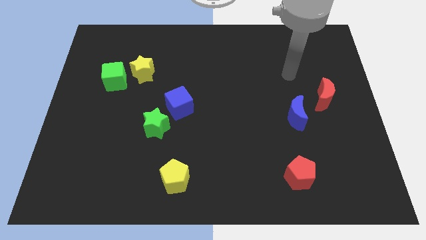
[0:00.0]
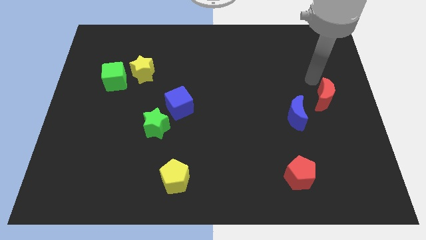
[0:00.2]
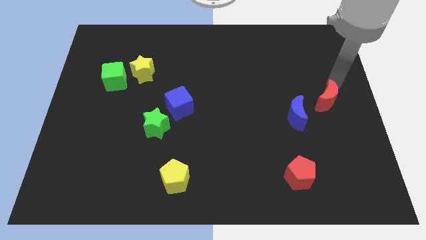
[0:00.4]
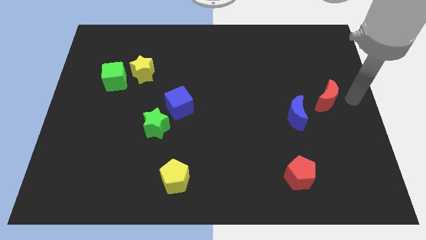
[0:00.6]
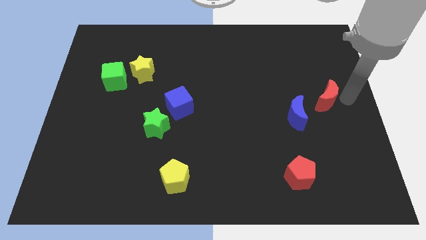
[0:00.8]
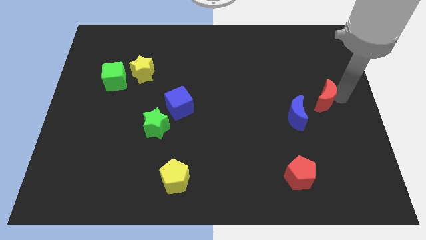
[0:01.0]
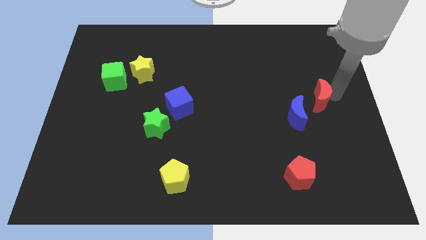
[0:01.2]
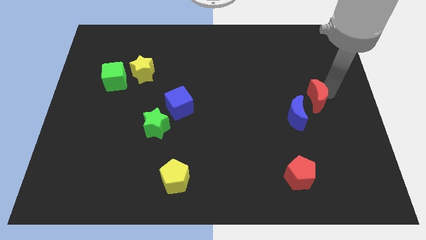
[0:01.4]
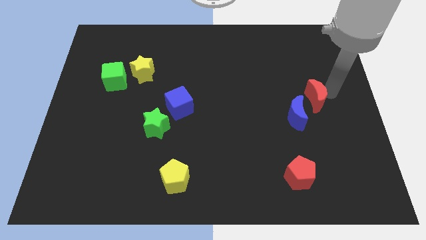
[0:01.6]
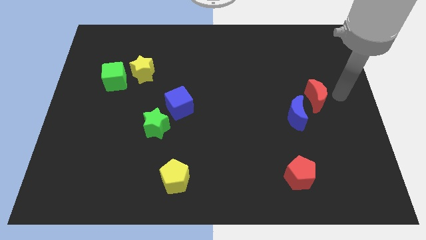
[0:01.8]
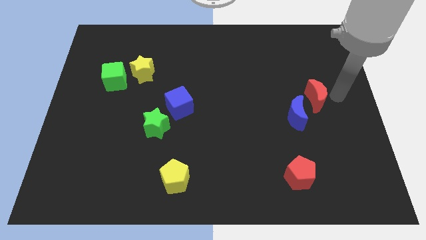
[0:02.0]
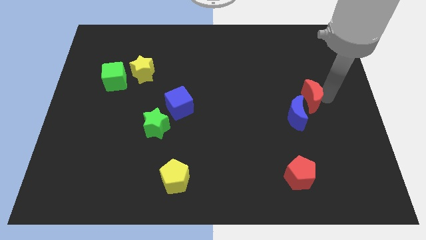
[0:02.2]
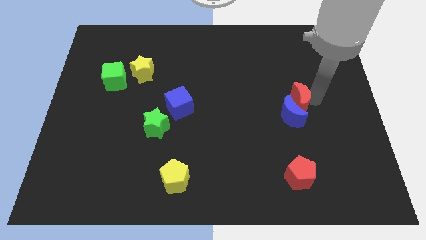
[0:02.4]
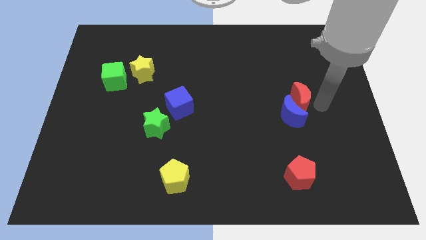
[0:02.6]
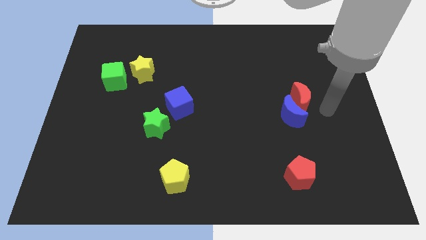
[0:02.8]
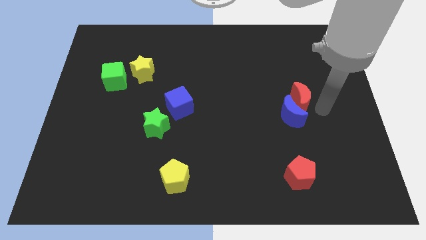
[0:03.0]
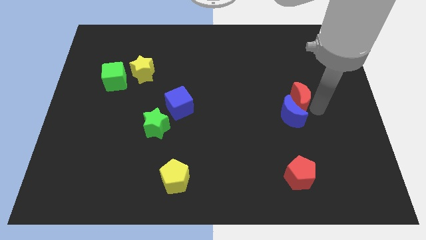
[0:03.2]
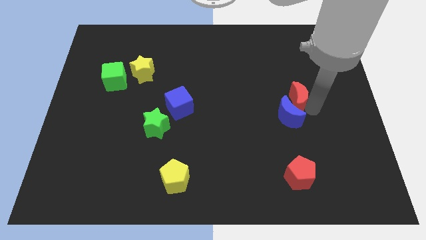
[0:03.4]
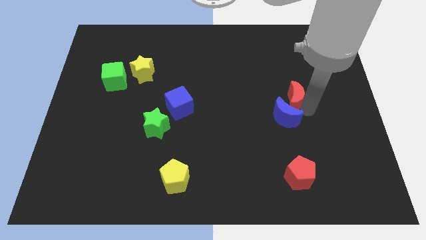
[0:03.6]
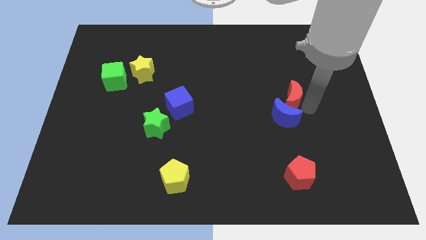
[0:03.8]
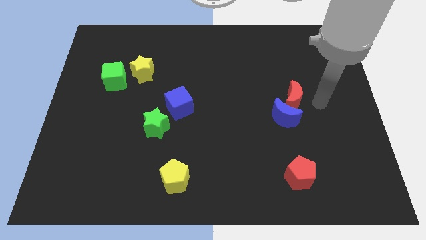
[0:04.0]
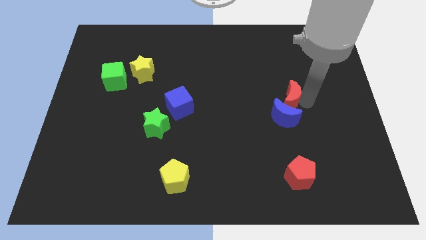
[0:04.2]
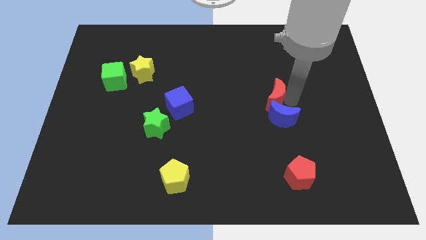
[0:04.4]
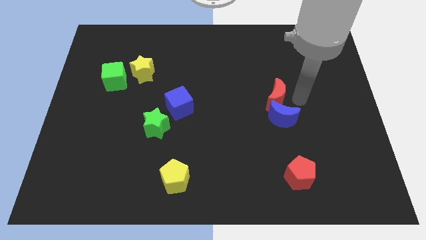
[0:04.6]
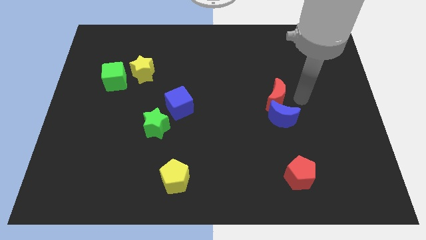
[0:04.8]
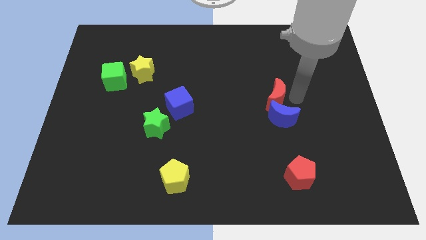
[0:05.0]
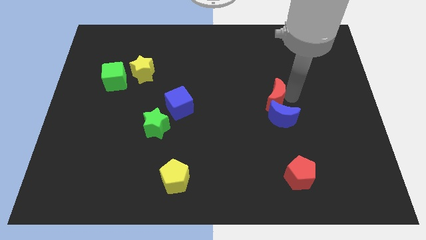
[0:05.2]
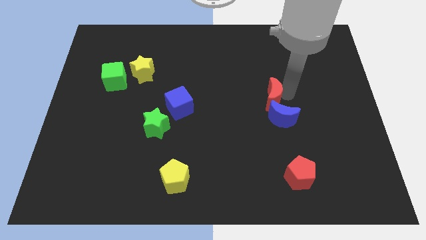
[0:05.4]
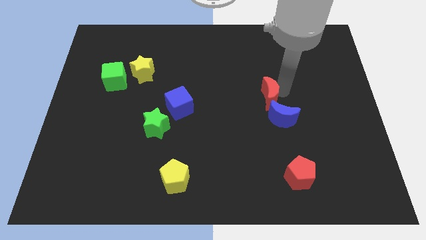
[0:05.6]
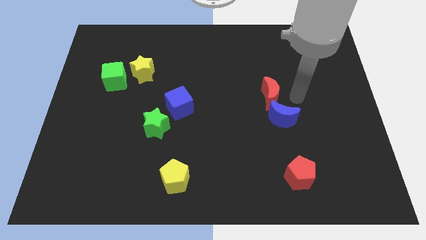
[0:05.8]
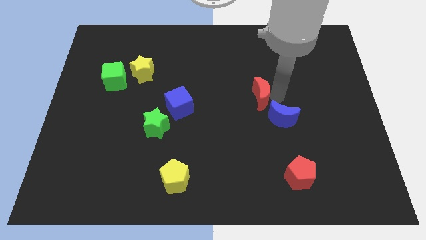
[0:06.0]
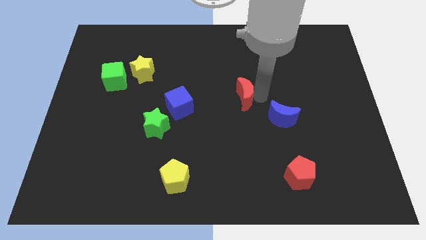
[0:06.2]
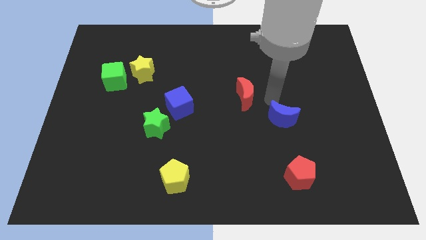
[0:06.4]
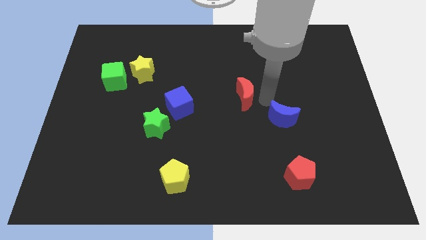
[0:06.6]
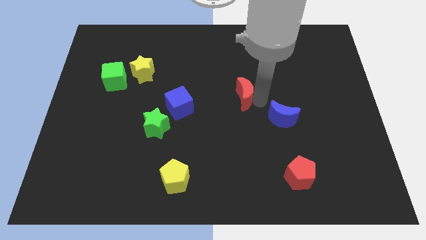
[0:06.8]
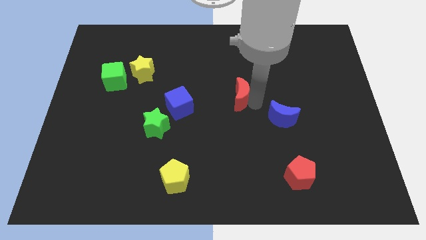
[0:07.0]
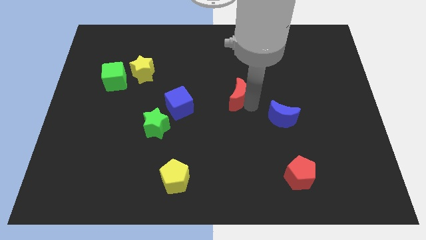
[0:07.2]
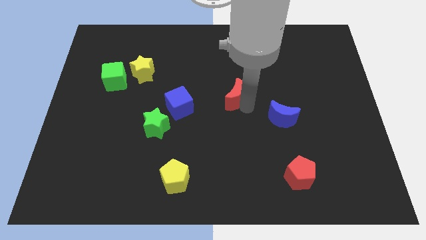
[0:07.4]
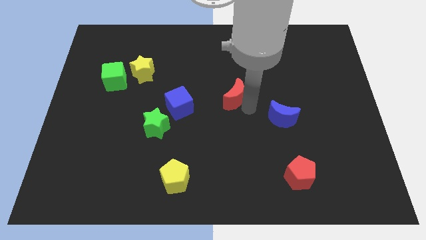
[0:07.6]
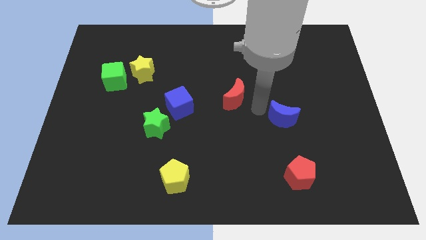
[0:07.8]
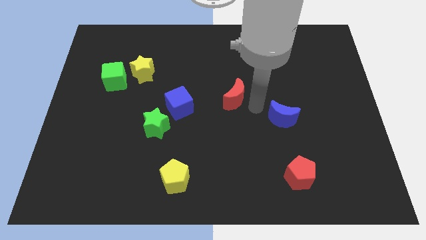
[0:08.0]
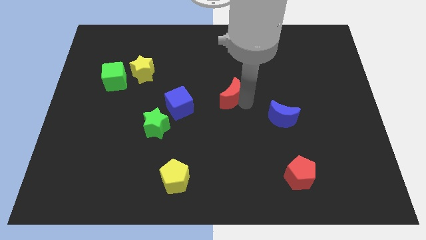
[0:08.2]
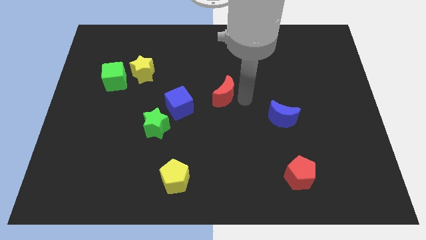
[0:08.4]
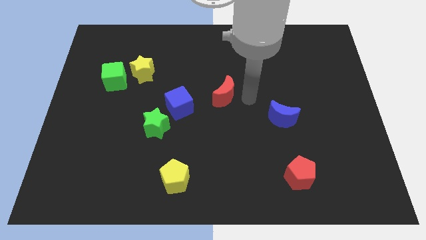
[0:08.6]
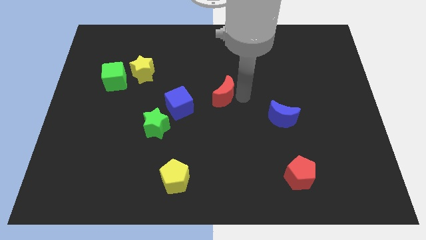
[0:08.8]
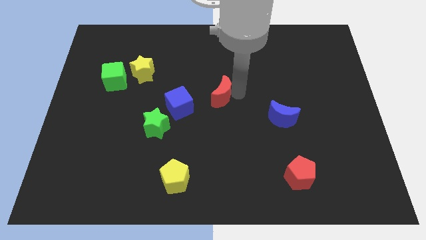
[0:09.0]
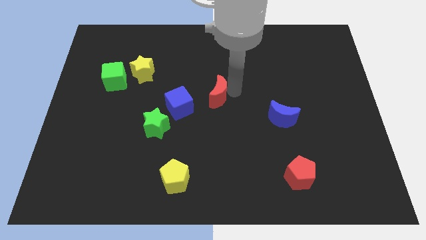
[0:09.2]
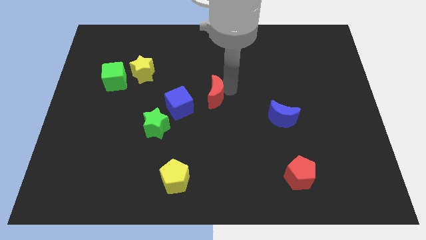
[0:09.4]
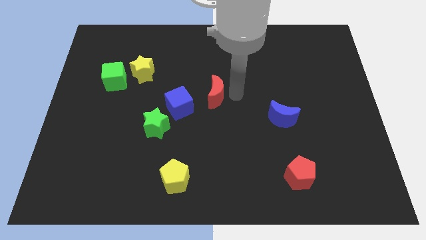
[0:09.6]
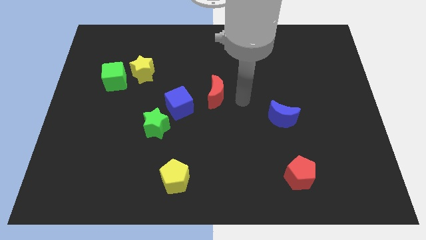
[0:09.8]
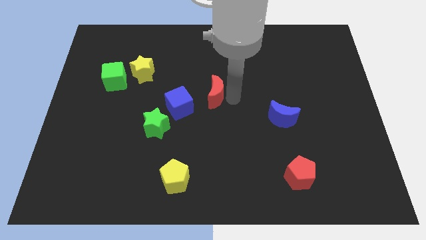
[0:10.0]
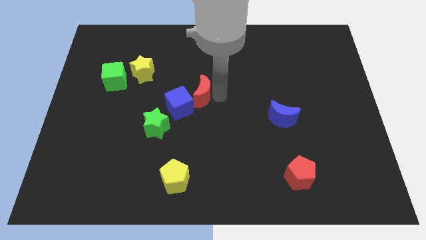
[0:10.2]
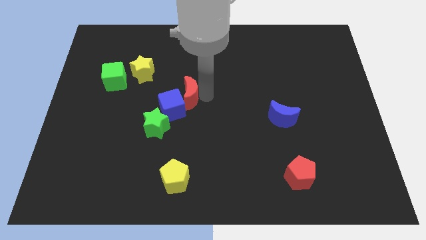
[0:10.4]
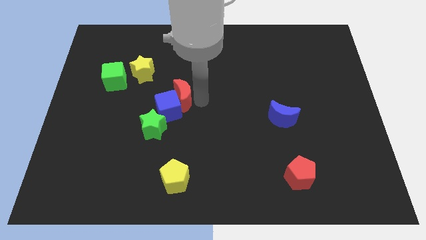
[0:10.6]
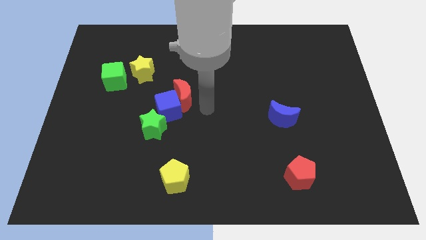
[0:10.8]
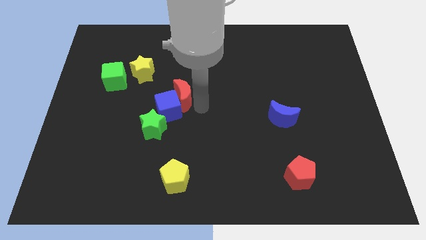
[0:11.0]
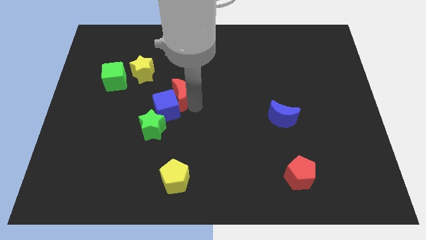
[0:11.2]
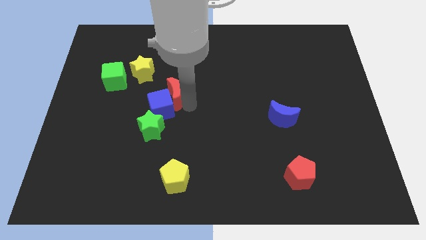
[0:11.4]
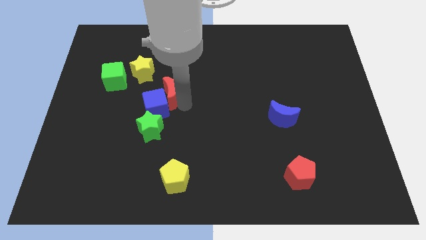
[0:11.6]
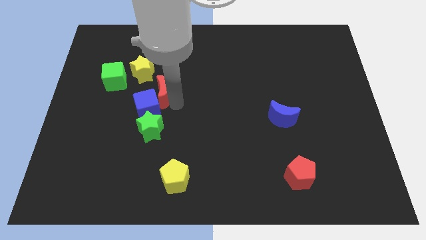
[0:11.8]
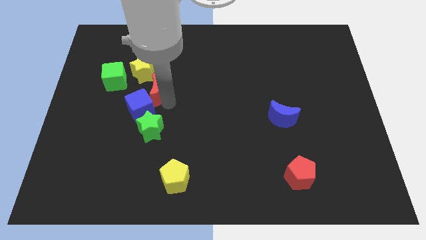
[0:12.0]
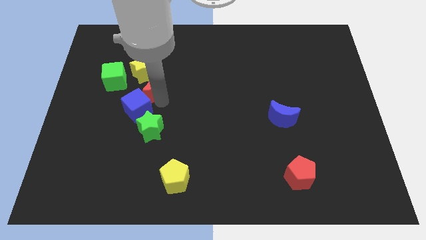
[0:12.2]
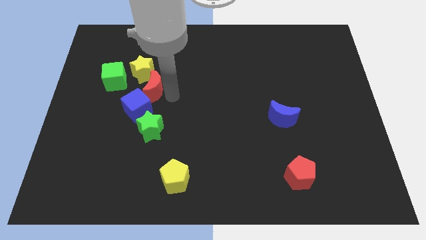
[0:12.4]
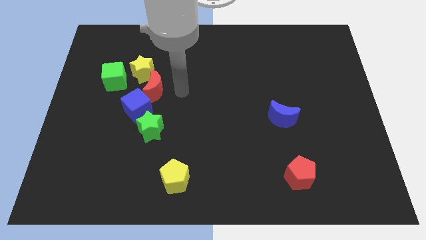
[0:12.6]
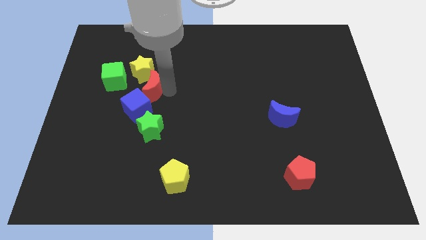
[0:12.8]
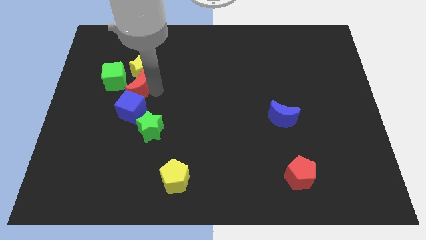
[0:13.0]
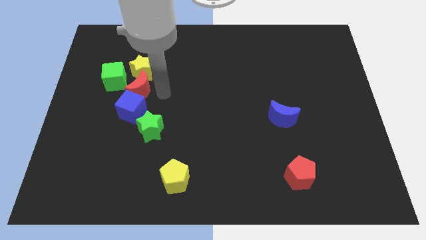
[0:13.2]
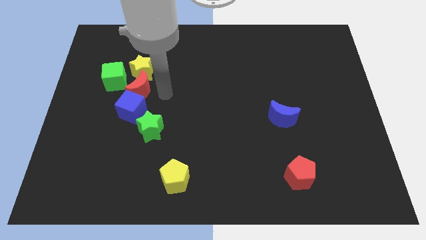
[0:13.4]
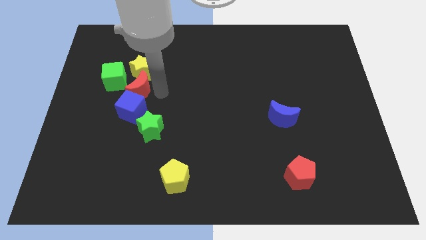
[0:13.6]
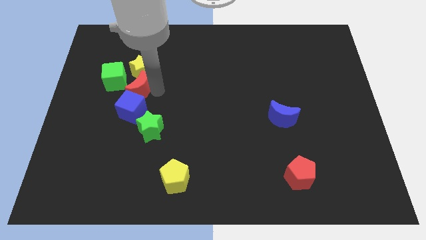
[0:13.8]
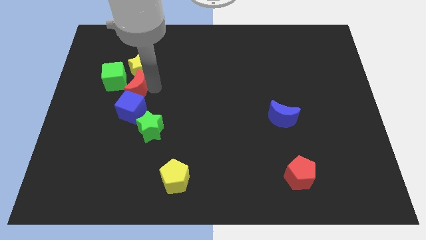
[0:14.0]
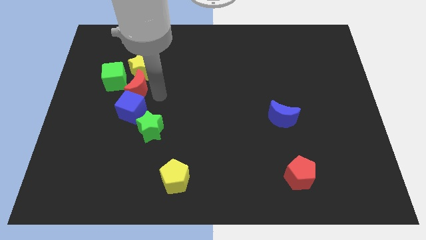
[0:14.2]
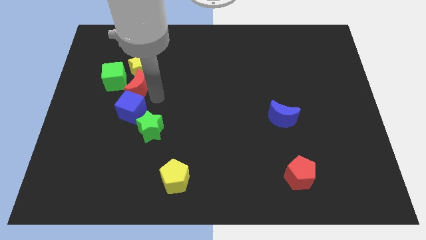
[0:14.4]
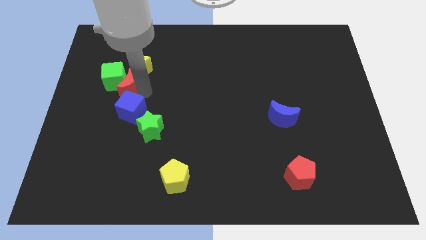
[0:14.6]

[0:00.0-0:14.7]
slide the red moon next to the green cube
